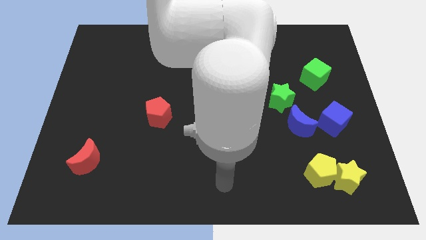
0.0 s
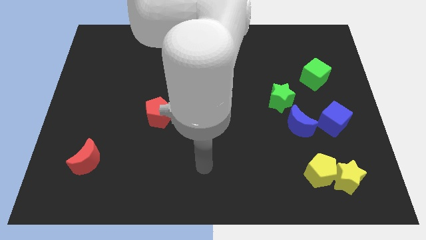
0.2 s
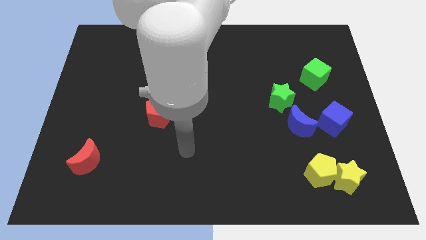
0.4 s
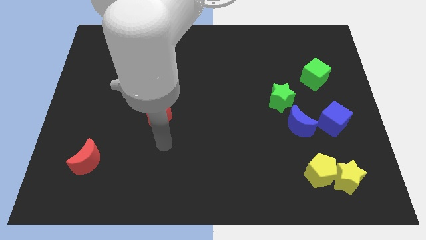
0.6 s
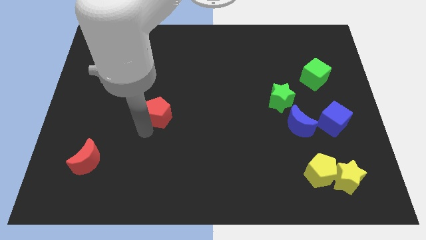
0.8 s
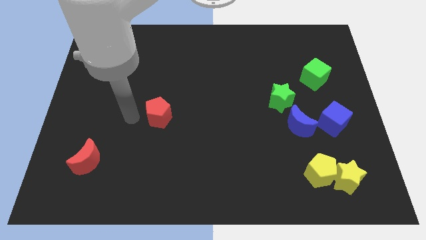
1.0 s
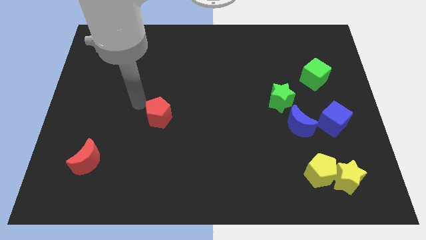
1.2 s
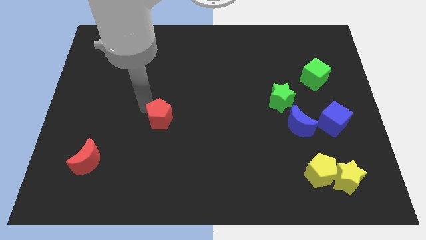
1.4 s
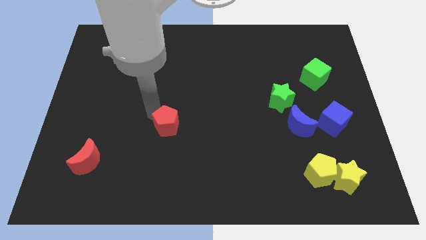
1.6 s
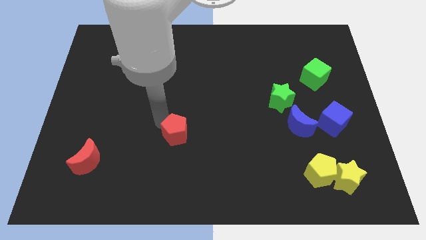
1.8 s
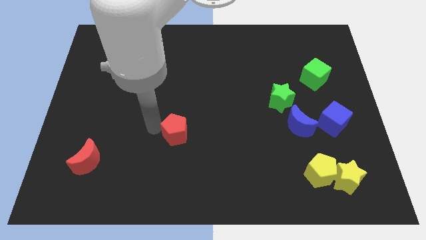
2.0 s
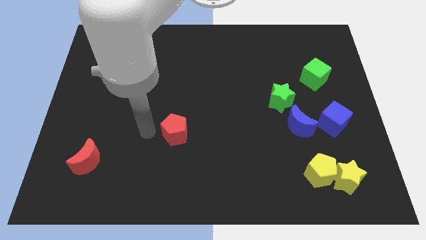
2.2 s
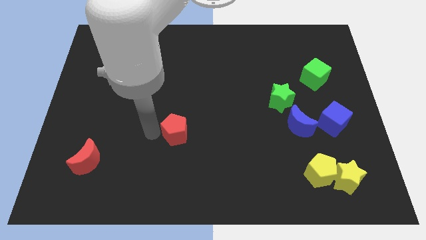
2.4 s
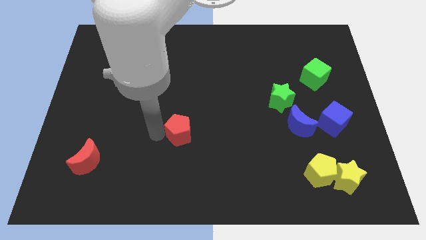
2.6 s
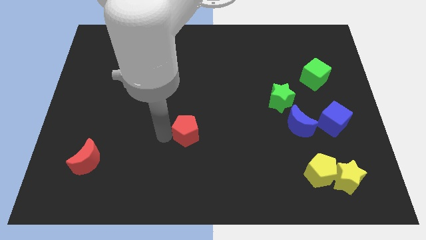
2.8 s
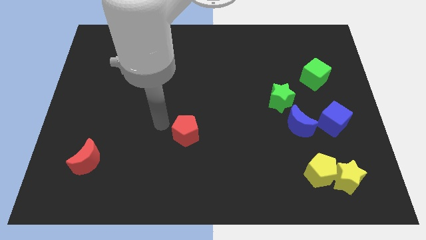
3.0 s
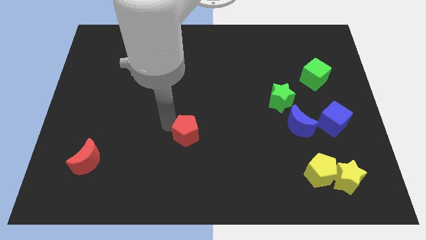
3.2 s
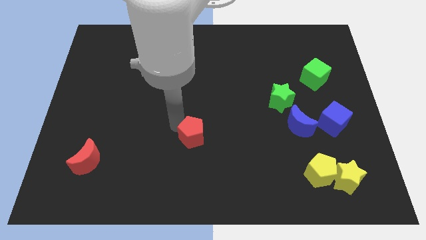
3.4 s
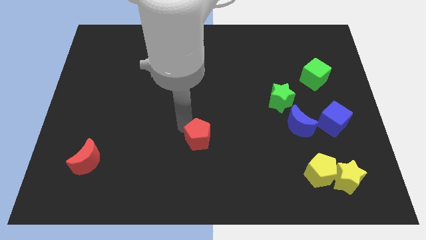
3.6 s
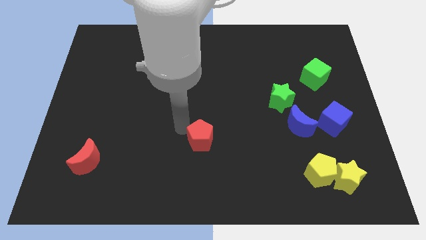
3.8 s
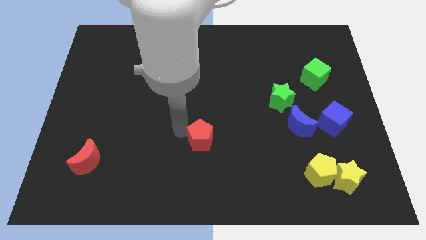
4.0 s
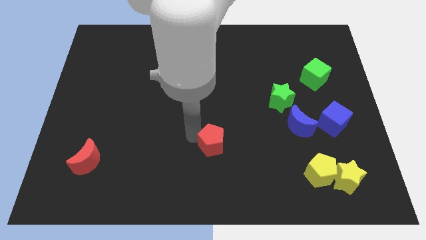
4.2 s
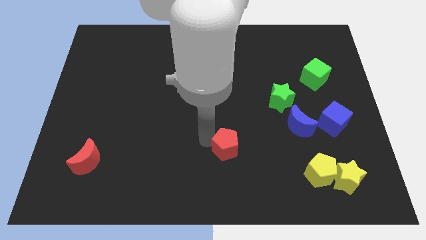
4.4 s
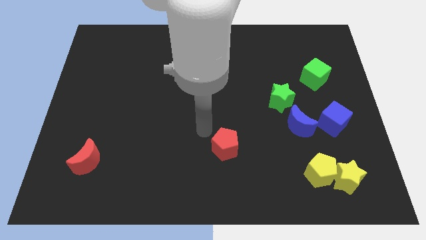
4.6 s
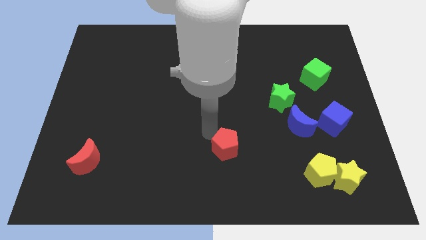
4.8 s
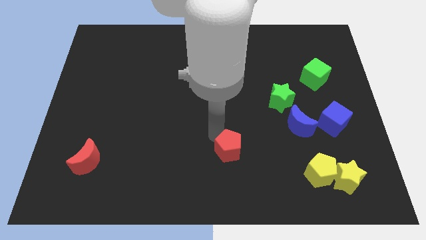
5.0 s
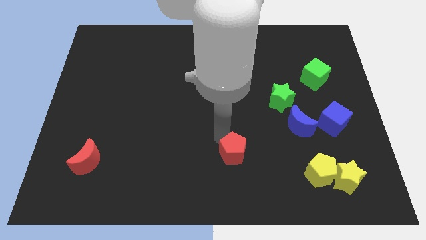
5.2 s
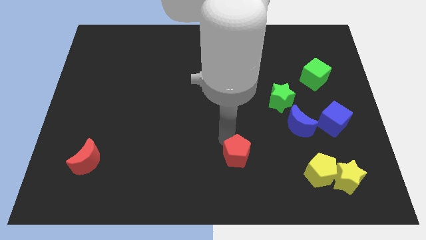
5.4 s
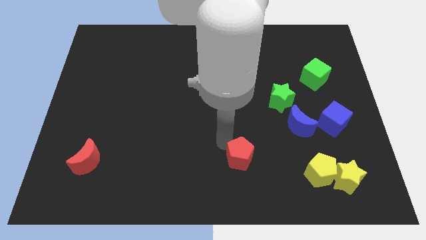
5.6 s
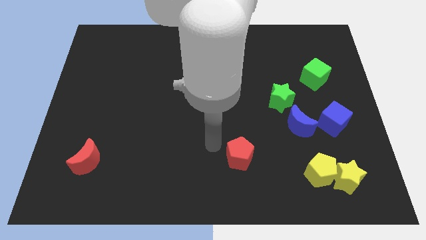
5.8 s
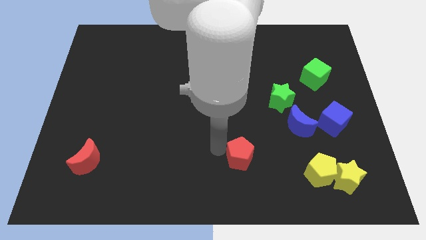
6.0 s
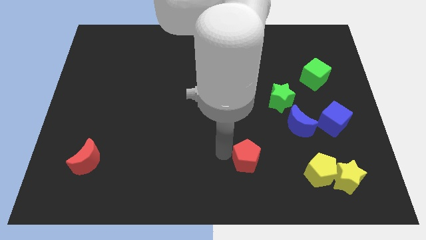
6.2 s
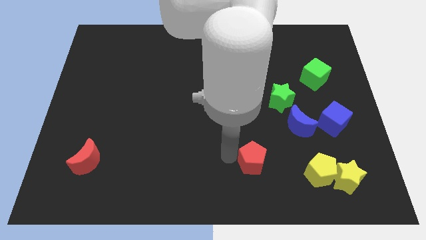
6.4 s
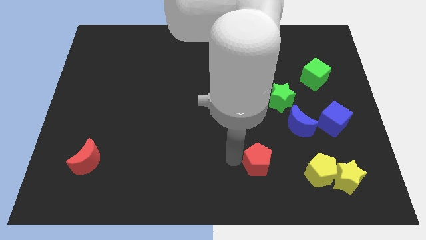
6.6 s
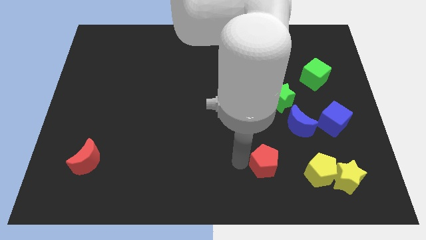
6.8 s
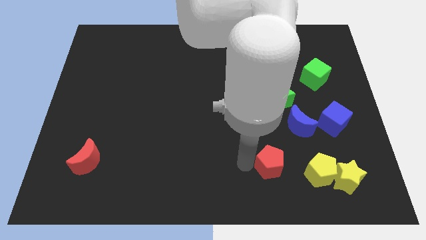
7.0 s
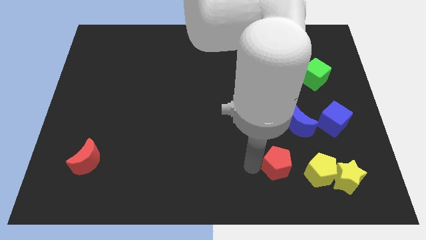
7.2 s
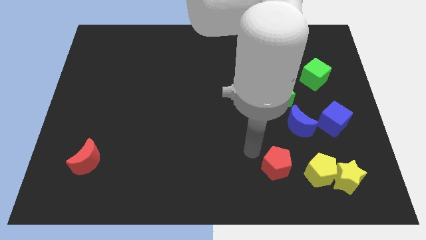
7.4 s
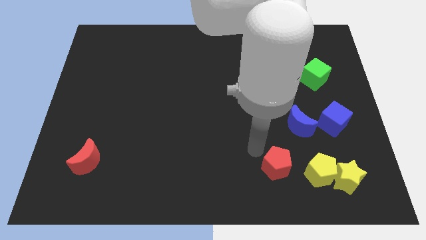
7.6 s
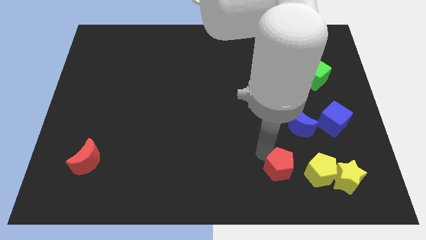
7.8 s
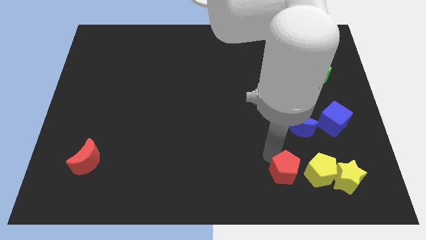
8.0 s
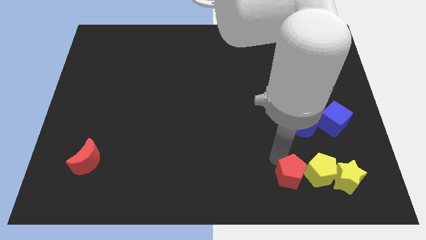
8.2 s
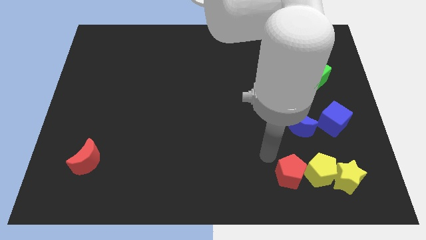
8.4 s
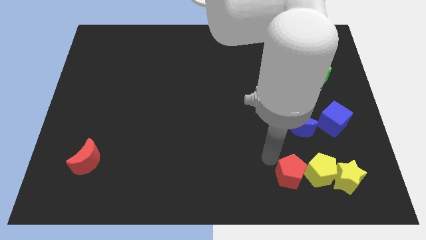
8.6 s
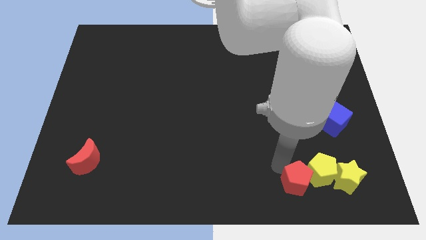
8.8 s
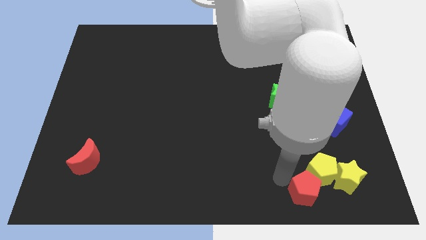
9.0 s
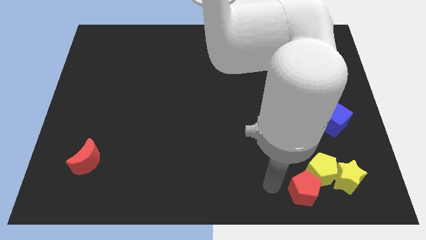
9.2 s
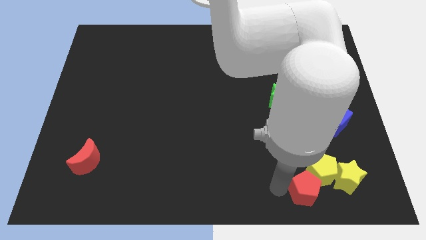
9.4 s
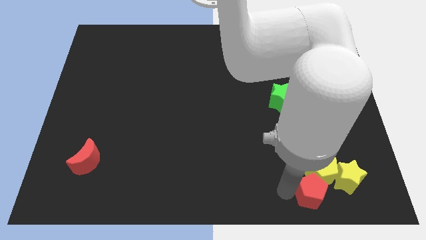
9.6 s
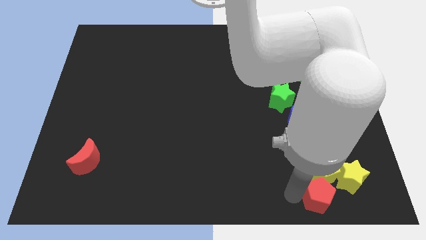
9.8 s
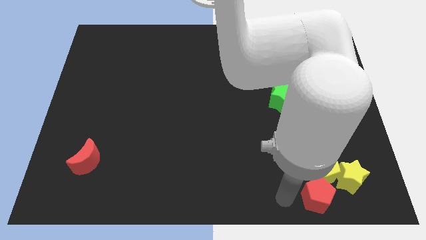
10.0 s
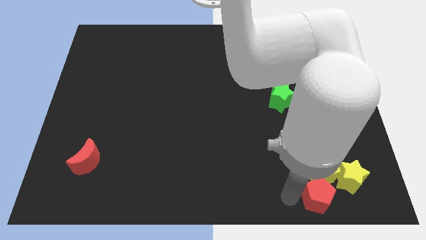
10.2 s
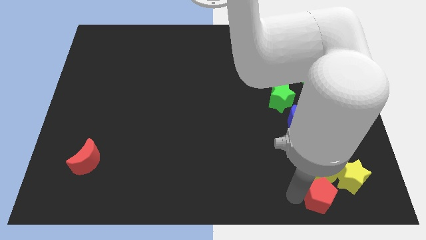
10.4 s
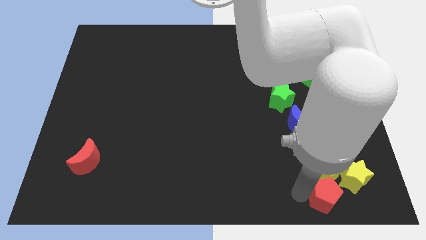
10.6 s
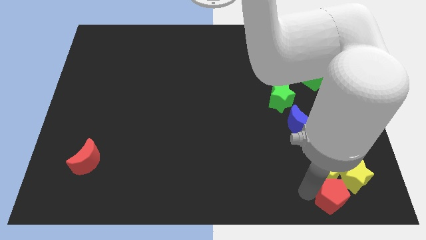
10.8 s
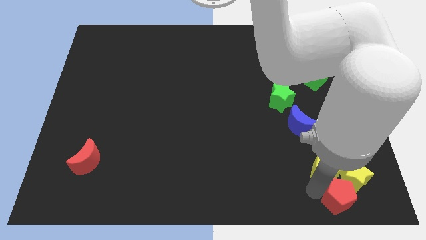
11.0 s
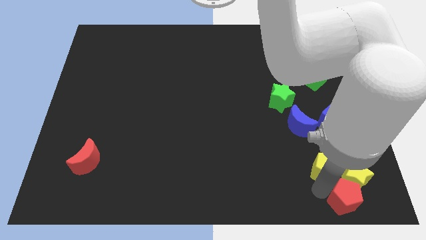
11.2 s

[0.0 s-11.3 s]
put the red pentagon to the bottom right of the board
